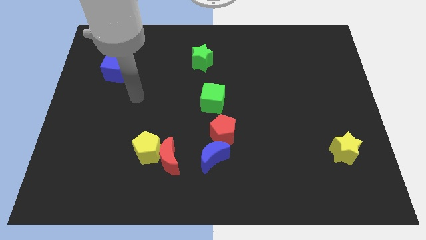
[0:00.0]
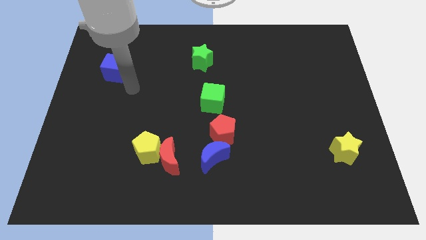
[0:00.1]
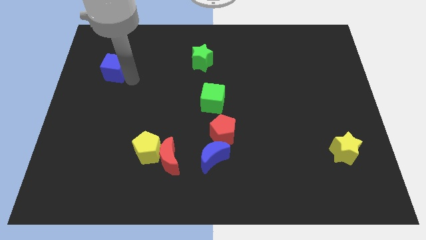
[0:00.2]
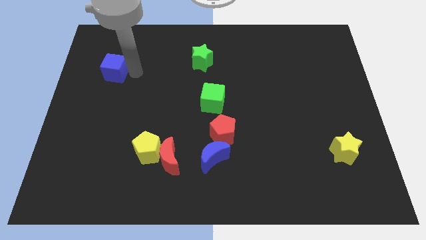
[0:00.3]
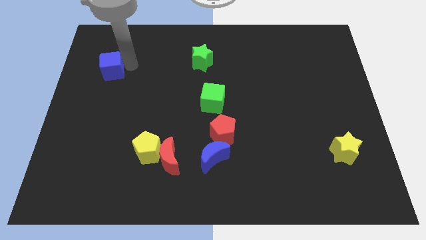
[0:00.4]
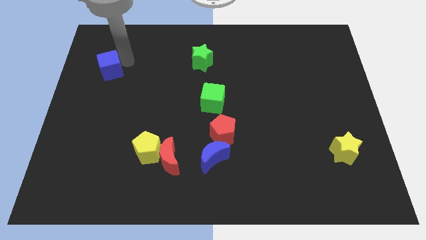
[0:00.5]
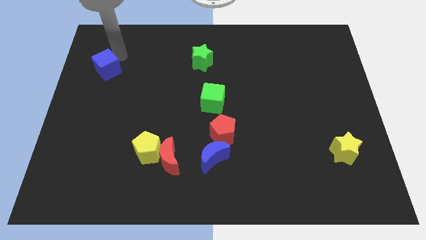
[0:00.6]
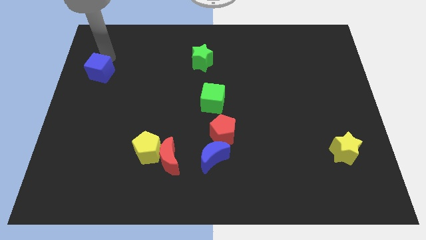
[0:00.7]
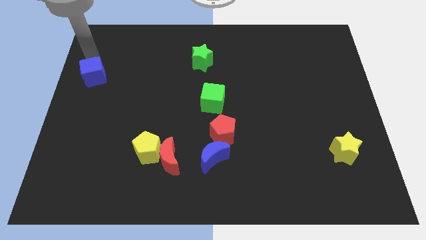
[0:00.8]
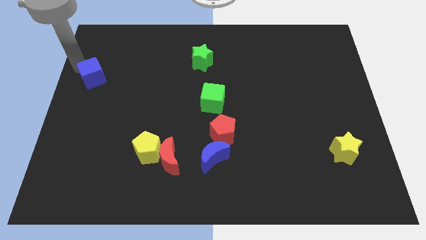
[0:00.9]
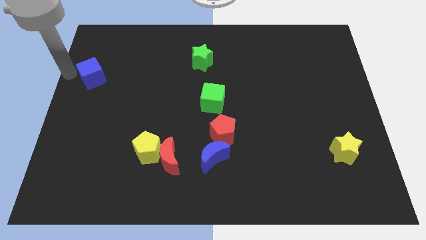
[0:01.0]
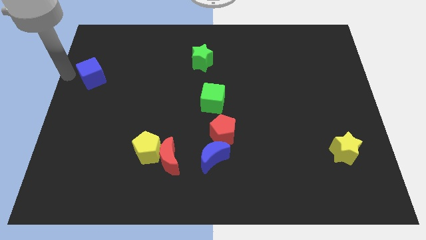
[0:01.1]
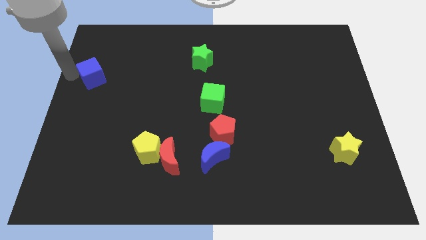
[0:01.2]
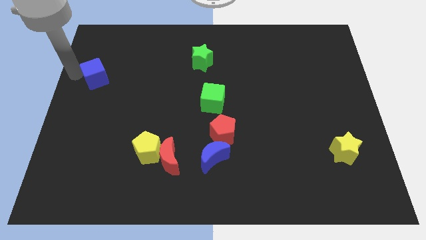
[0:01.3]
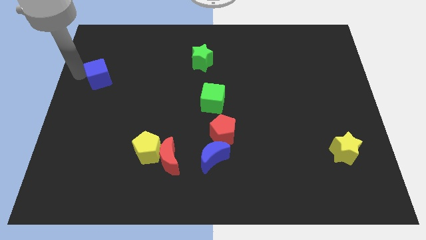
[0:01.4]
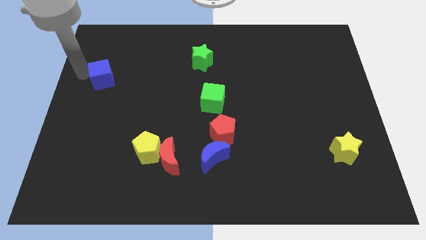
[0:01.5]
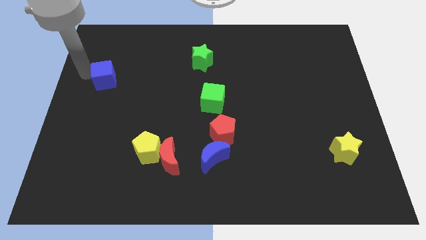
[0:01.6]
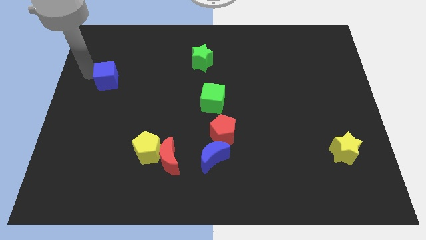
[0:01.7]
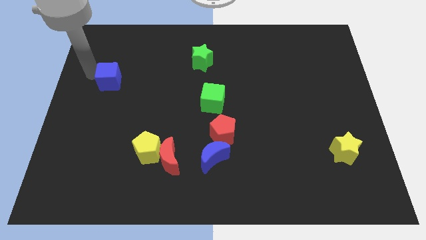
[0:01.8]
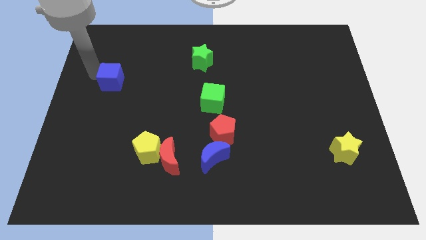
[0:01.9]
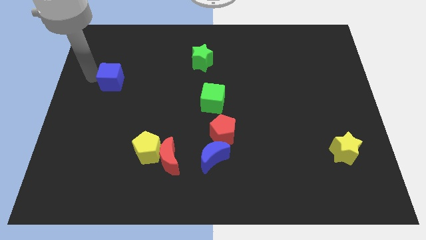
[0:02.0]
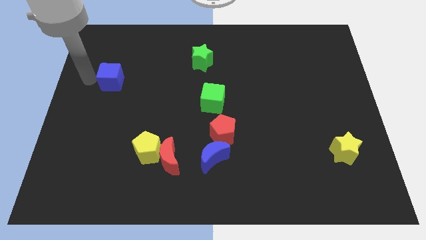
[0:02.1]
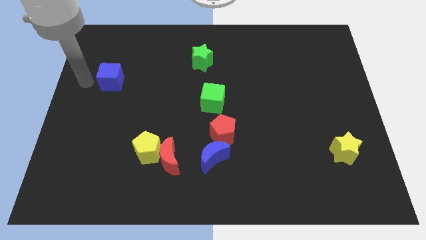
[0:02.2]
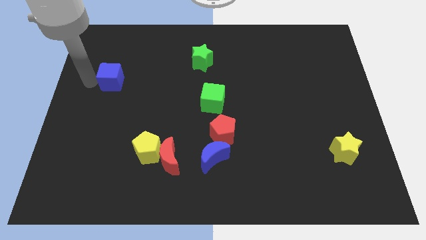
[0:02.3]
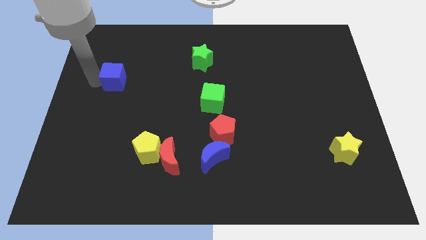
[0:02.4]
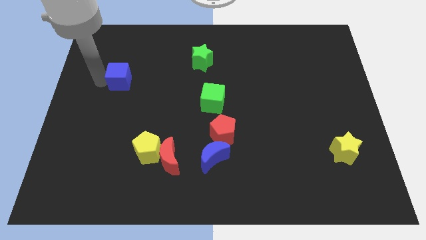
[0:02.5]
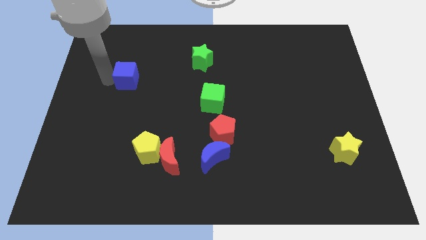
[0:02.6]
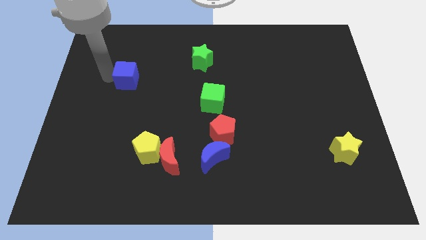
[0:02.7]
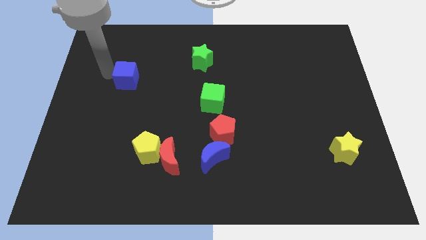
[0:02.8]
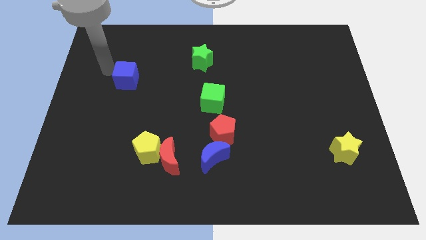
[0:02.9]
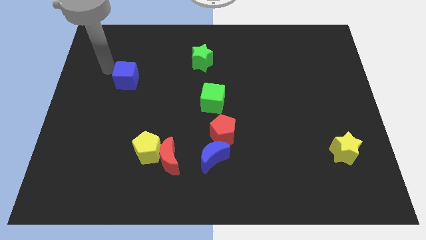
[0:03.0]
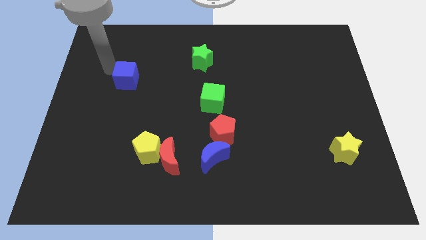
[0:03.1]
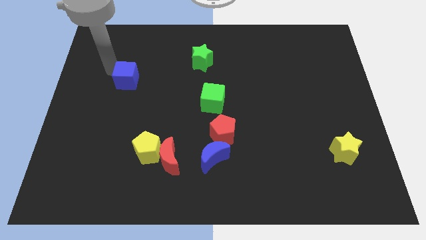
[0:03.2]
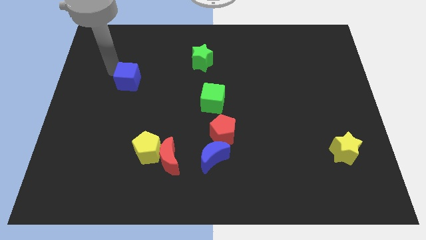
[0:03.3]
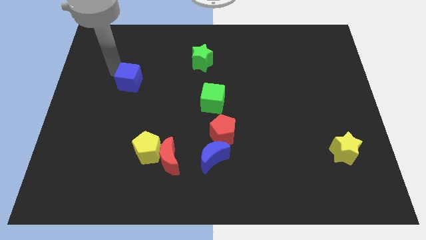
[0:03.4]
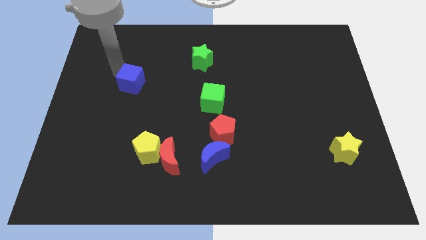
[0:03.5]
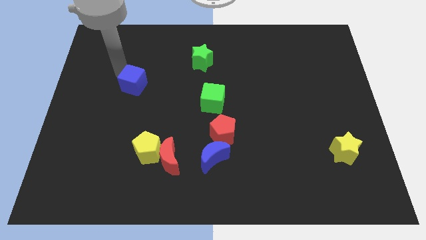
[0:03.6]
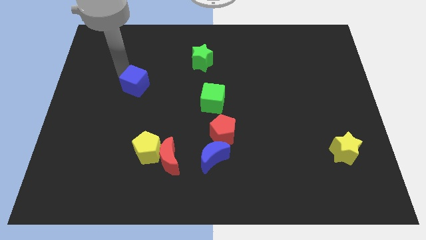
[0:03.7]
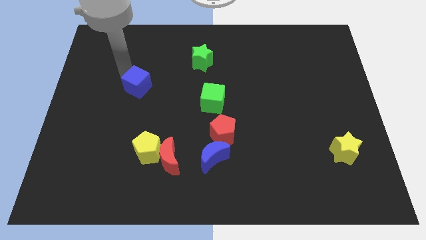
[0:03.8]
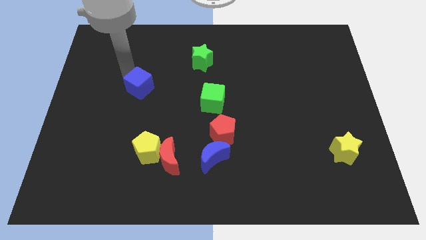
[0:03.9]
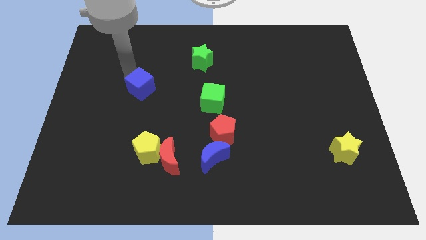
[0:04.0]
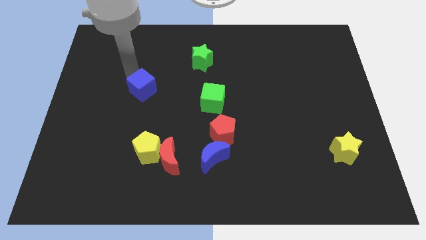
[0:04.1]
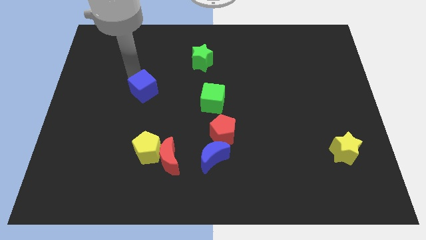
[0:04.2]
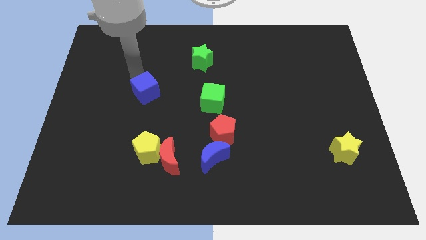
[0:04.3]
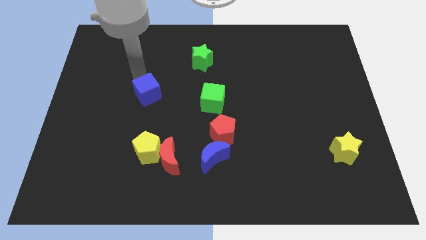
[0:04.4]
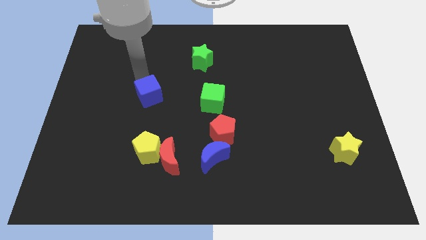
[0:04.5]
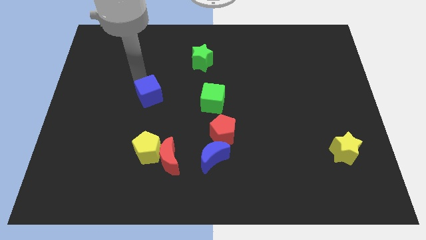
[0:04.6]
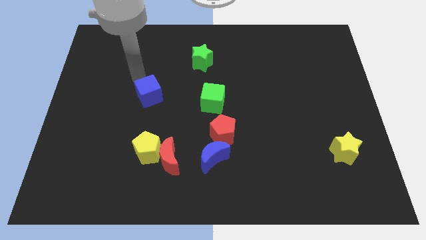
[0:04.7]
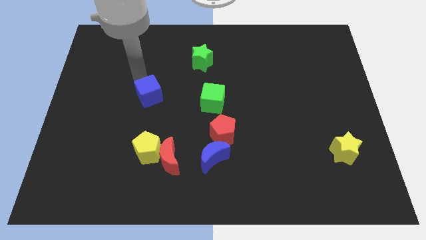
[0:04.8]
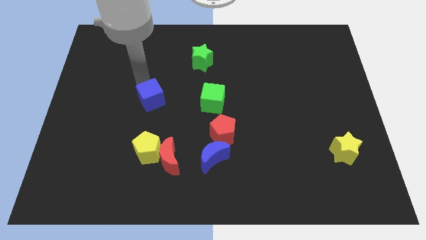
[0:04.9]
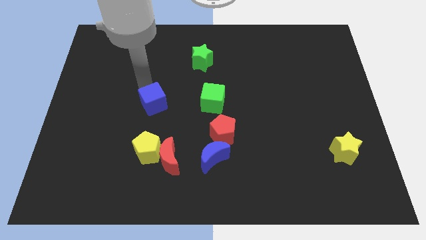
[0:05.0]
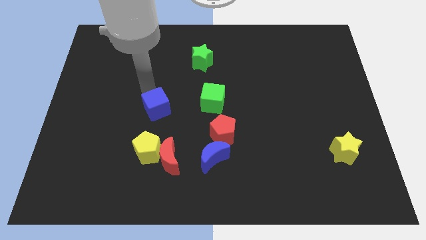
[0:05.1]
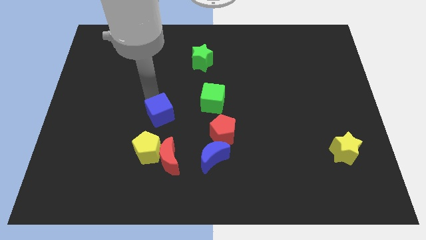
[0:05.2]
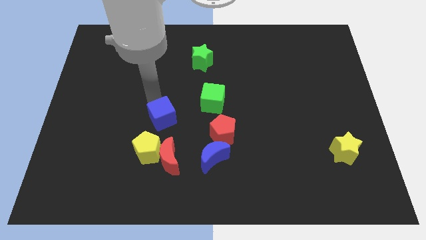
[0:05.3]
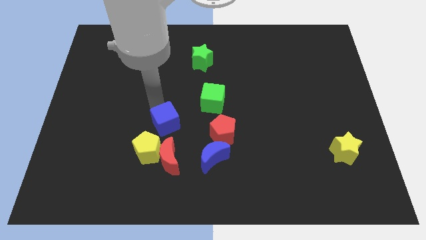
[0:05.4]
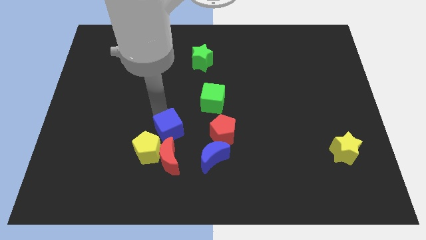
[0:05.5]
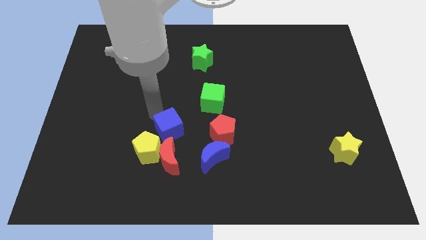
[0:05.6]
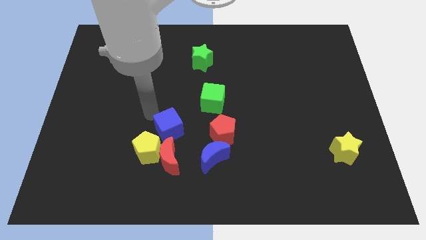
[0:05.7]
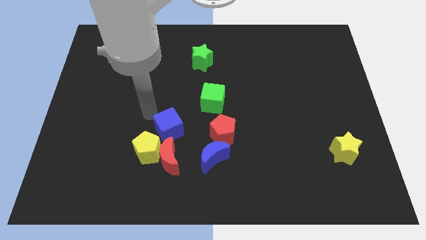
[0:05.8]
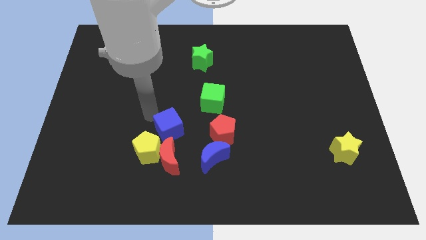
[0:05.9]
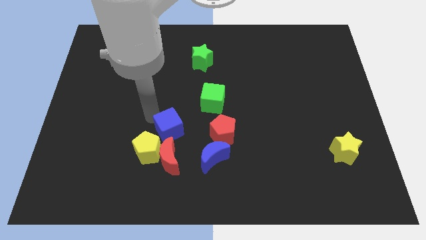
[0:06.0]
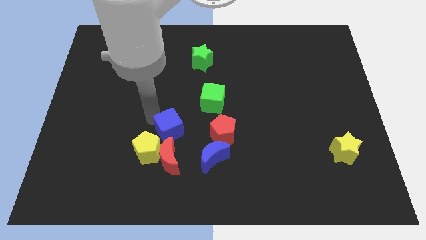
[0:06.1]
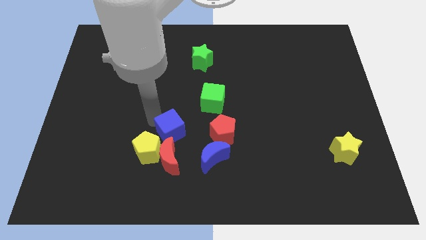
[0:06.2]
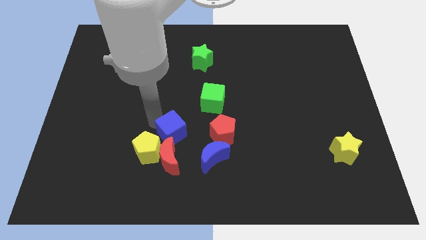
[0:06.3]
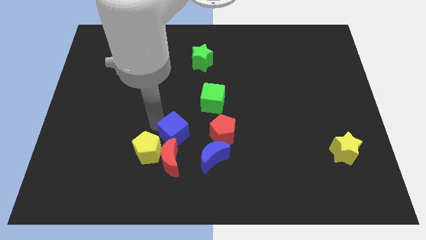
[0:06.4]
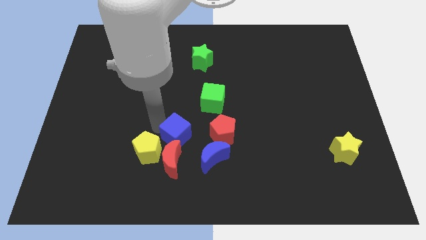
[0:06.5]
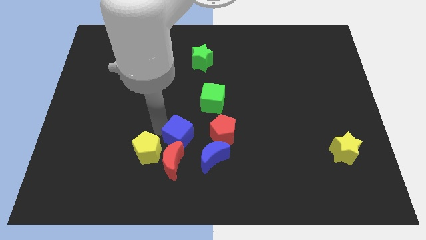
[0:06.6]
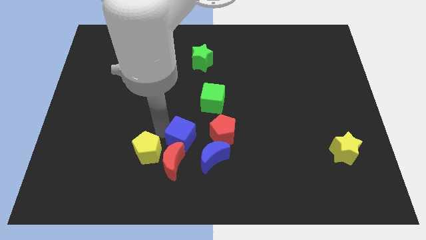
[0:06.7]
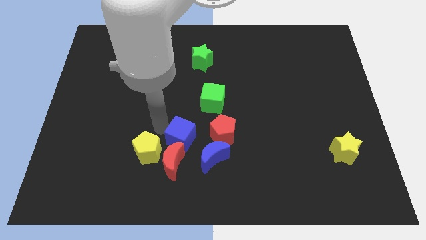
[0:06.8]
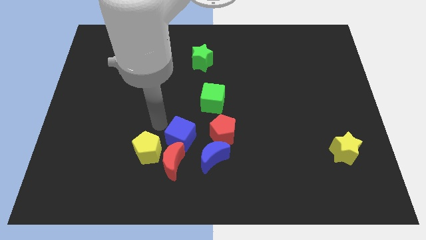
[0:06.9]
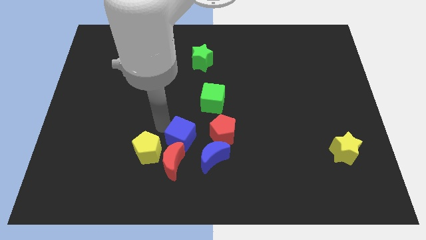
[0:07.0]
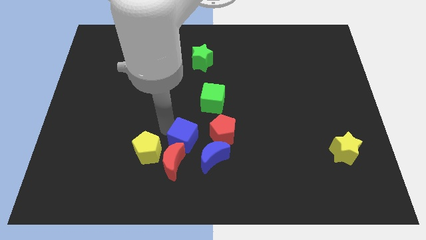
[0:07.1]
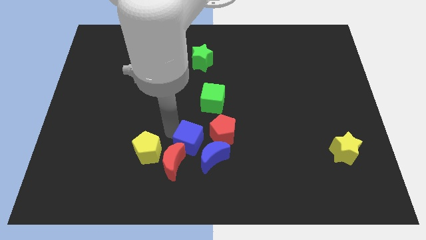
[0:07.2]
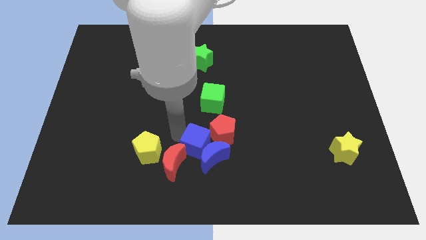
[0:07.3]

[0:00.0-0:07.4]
move the blue cube towards the blue moon

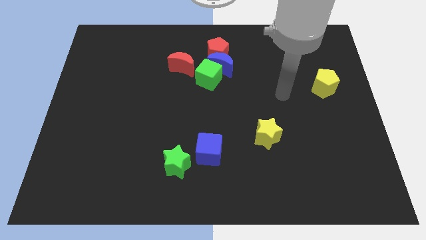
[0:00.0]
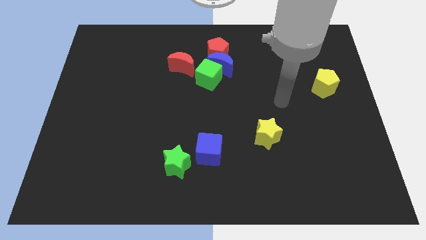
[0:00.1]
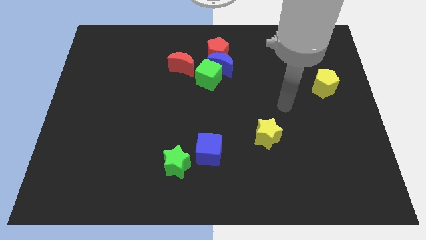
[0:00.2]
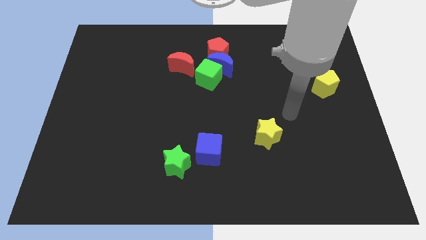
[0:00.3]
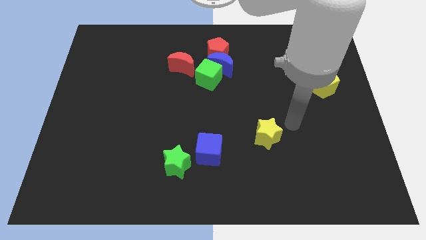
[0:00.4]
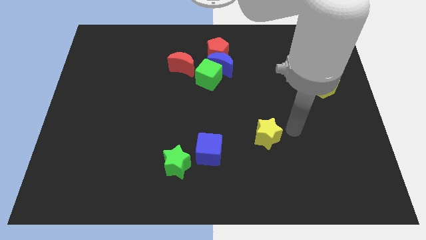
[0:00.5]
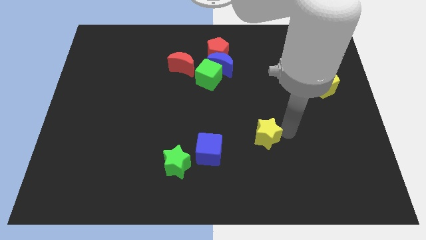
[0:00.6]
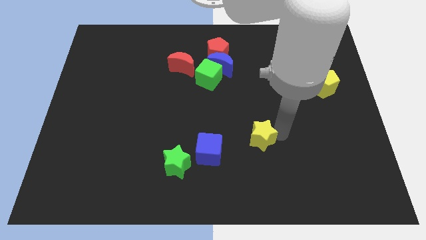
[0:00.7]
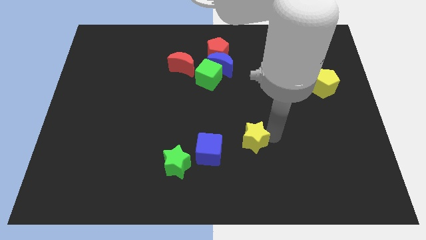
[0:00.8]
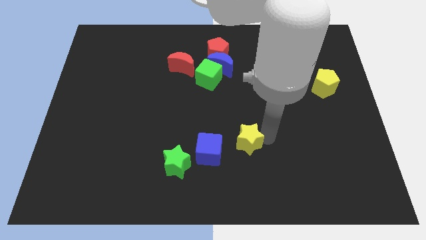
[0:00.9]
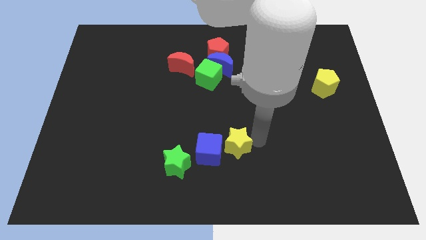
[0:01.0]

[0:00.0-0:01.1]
push the yellow star towards the blue cube
